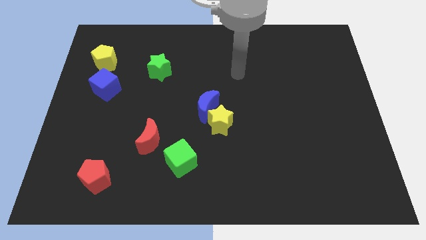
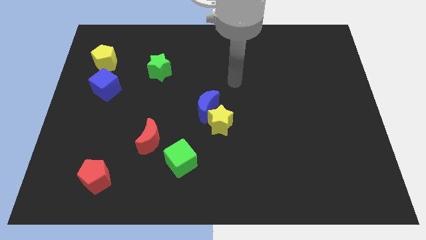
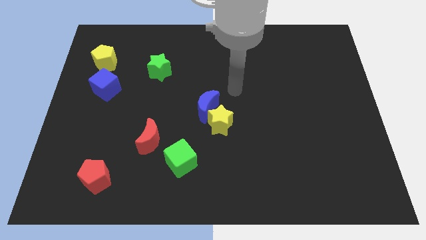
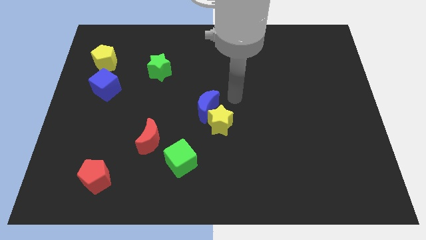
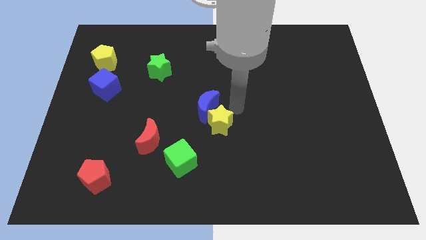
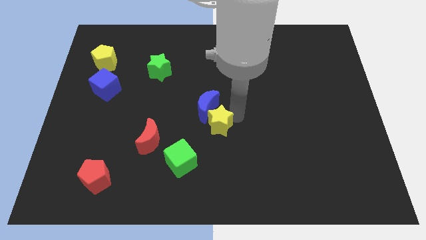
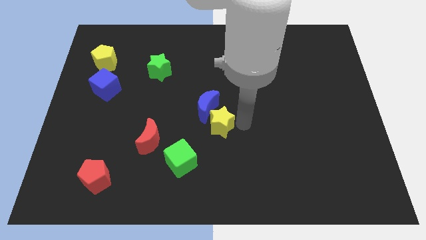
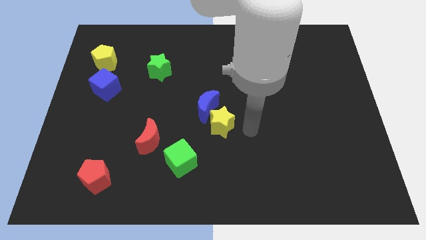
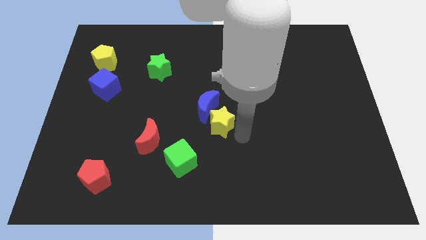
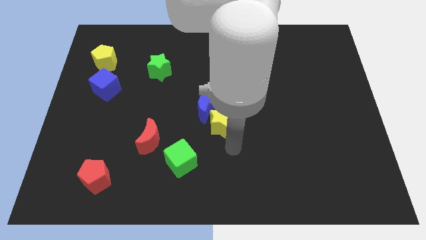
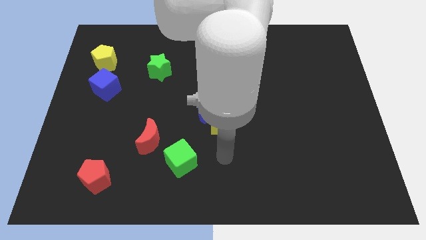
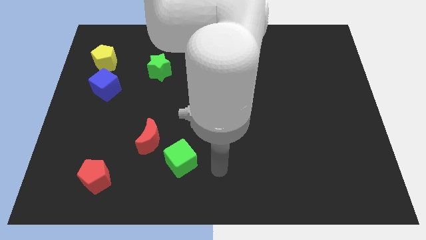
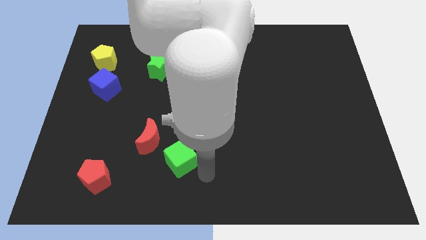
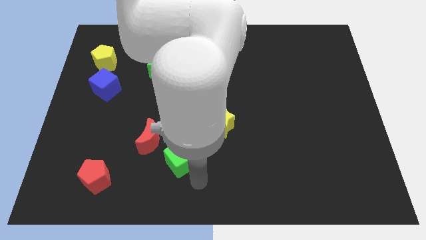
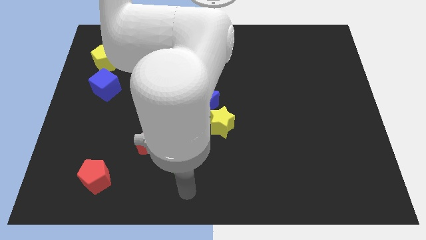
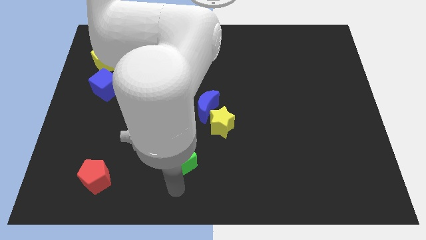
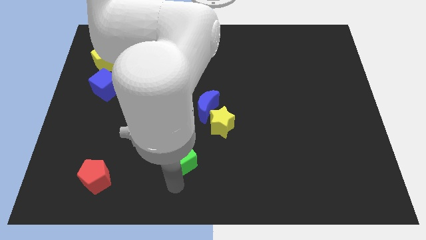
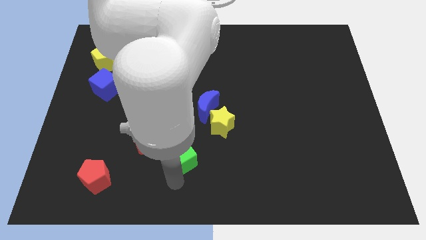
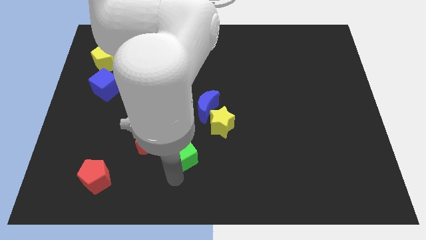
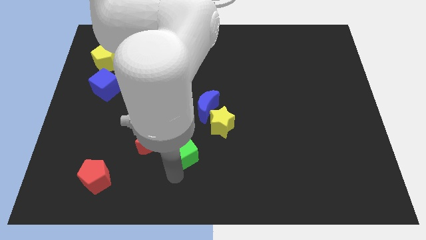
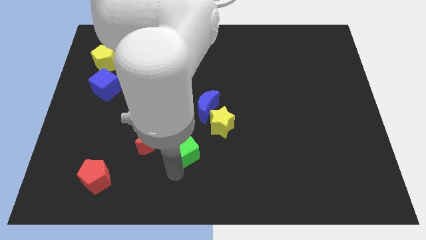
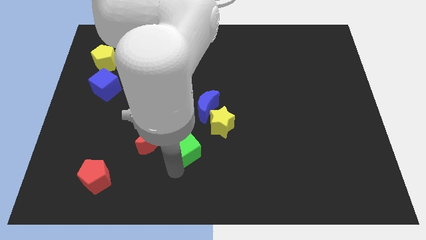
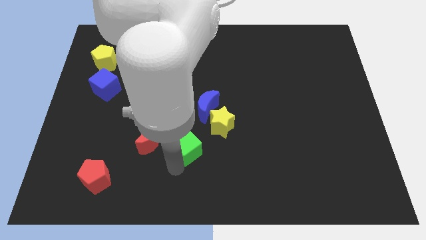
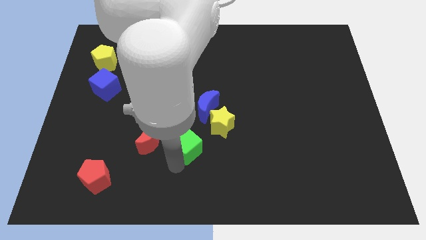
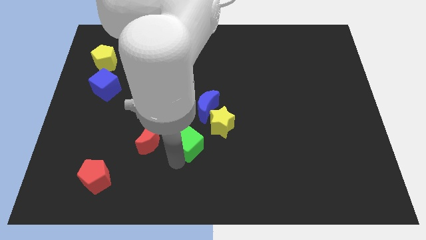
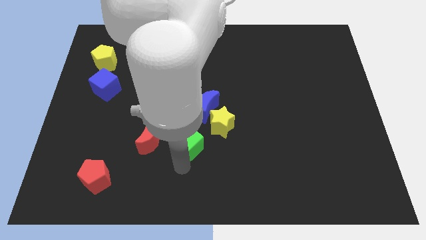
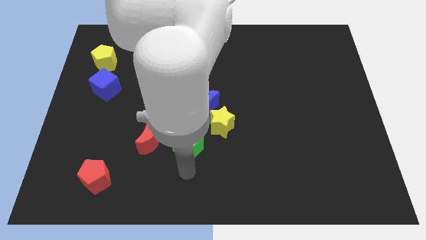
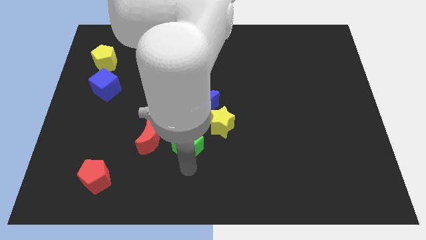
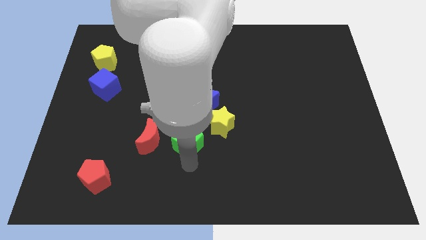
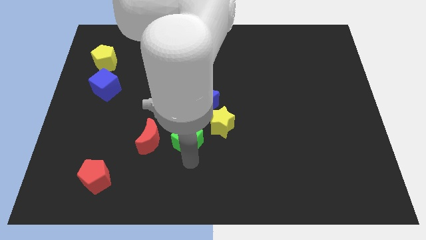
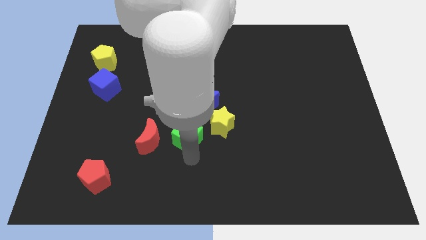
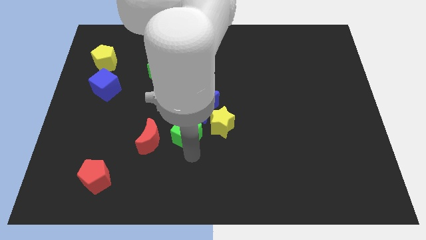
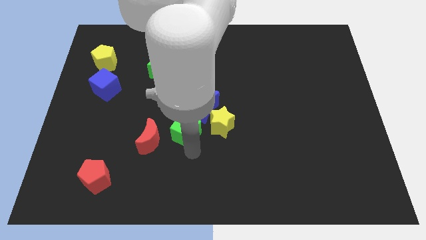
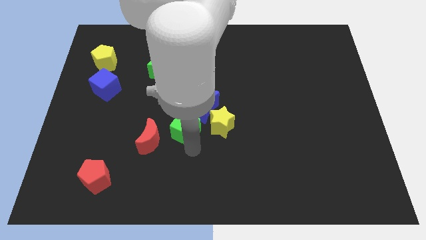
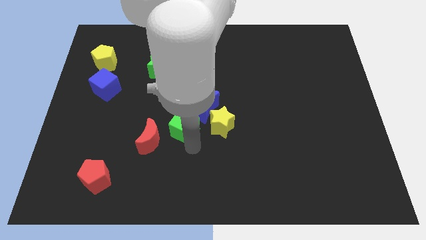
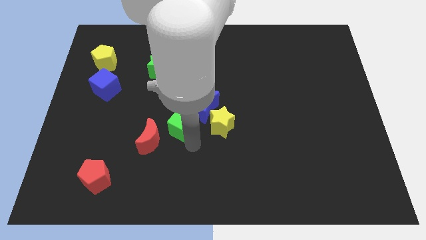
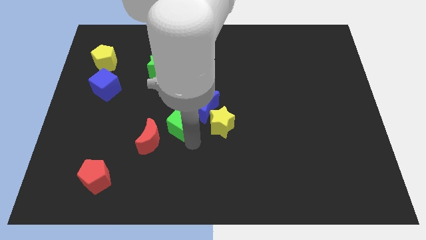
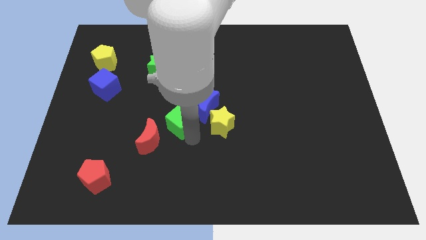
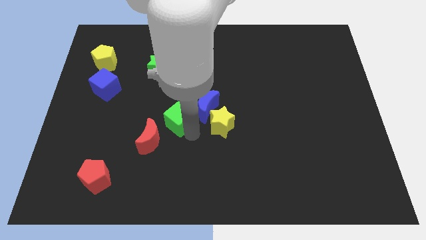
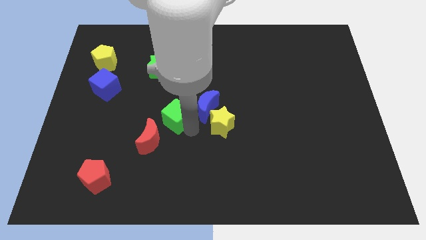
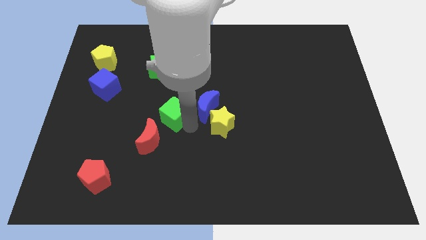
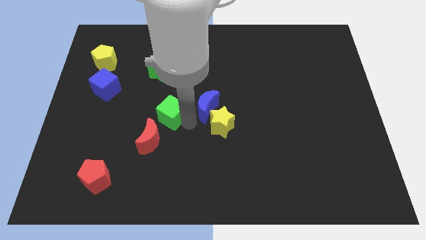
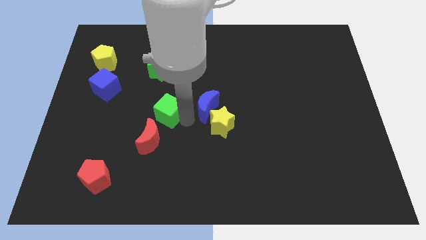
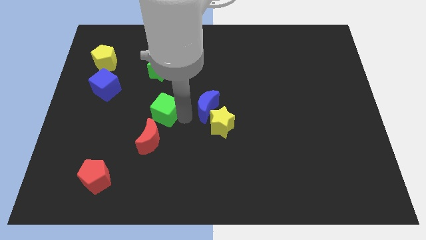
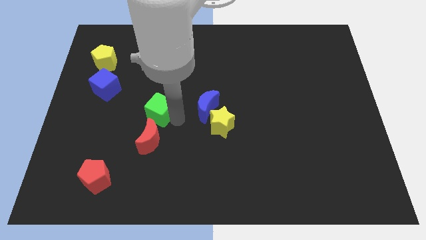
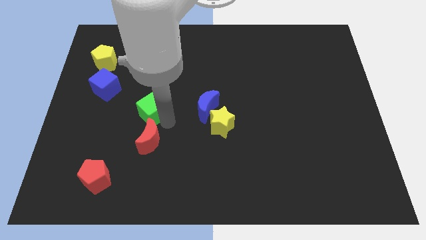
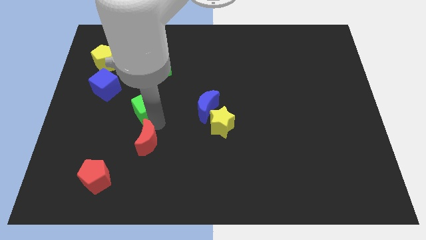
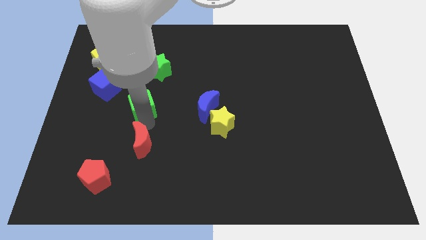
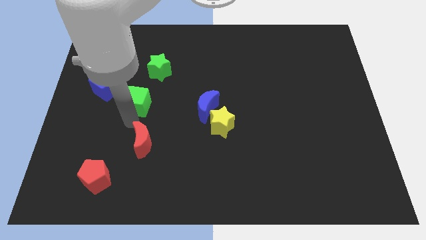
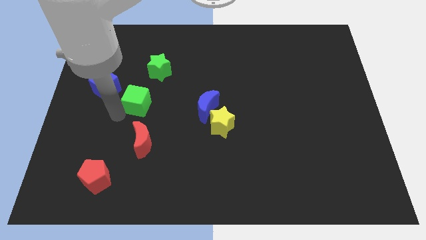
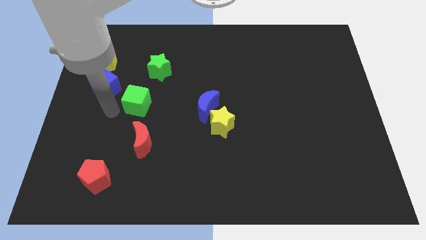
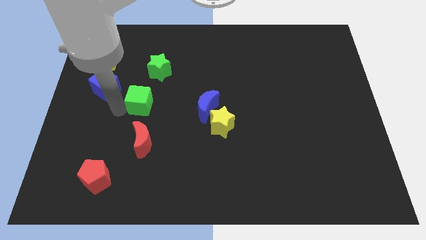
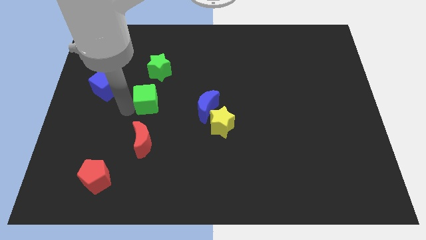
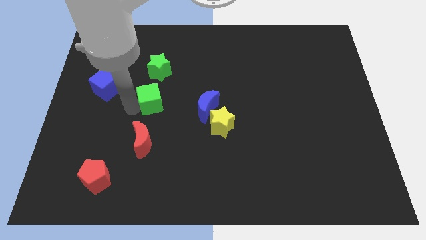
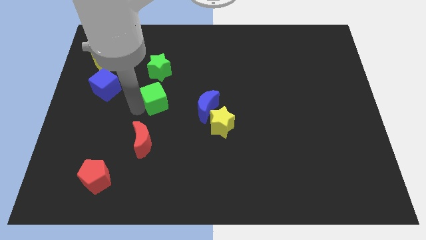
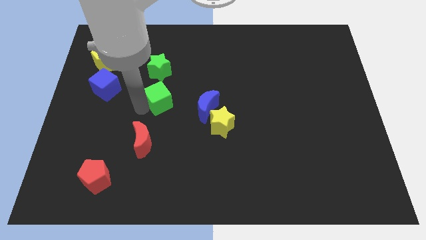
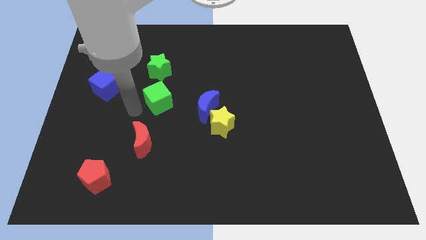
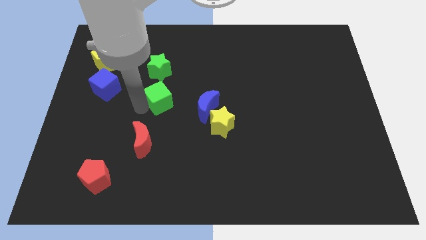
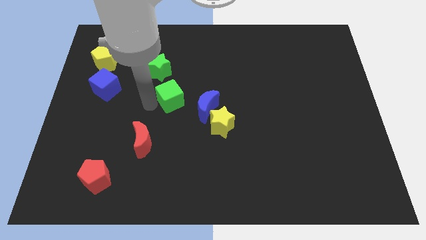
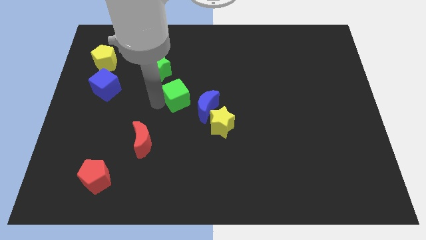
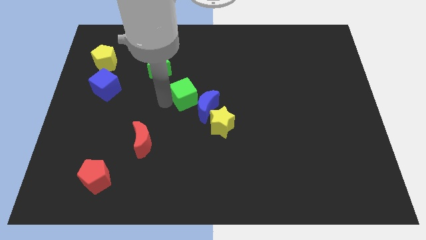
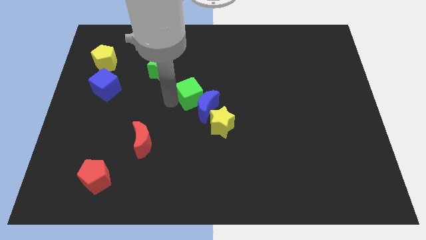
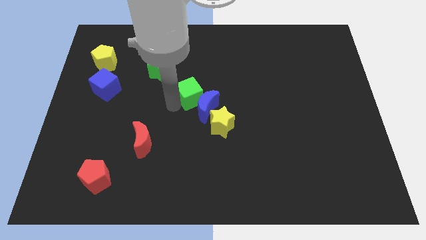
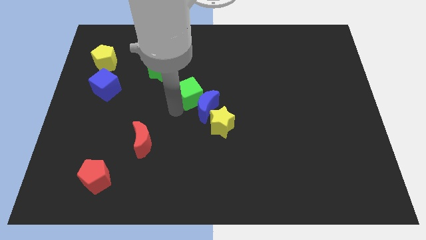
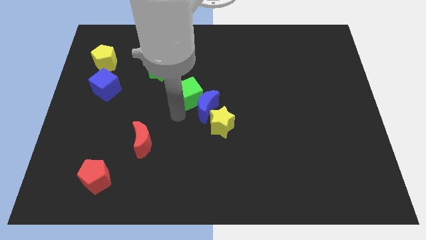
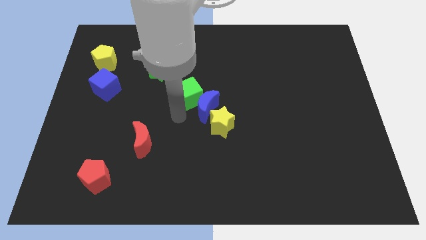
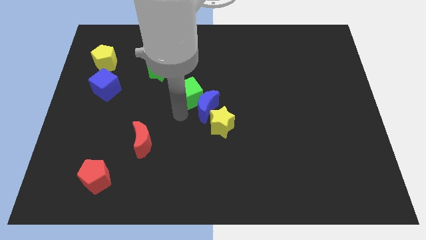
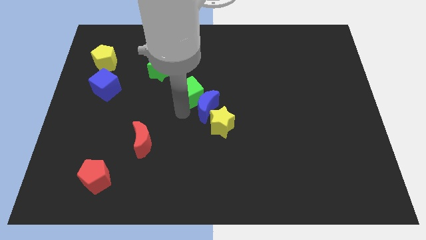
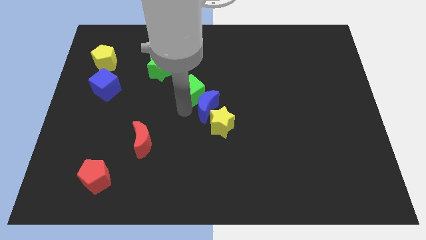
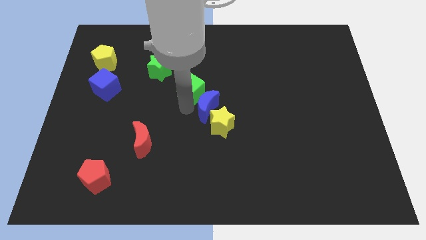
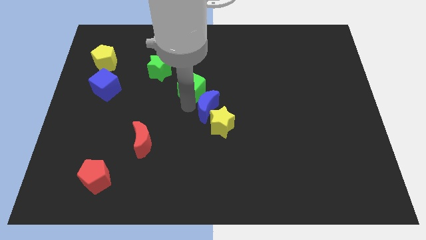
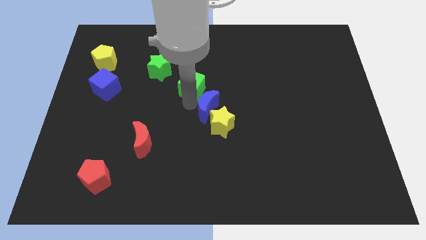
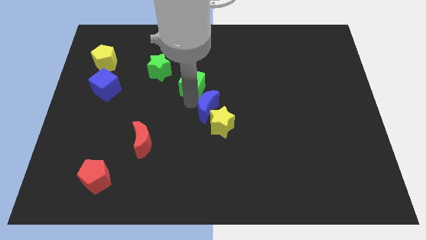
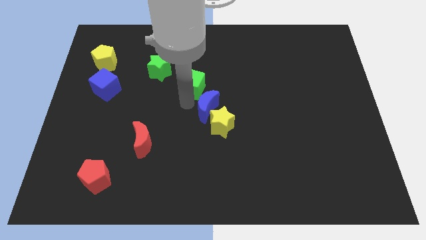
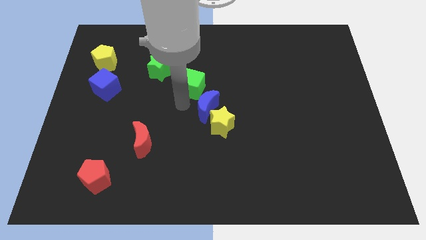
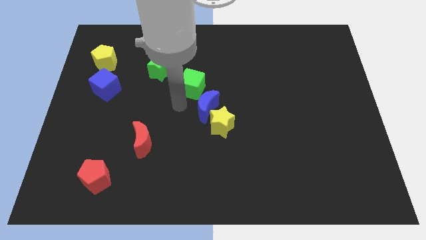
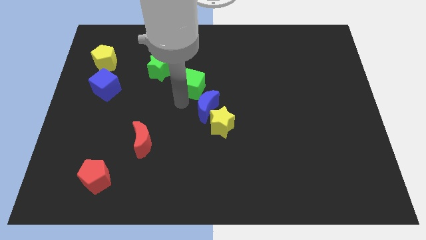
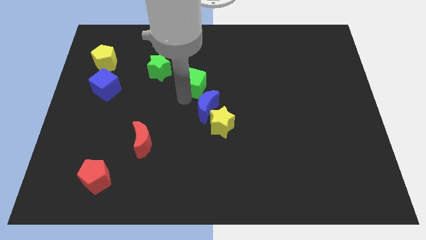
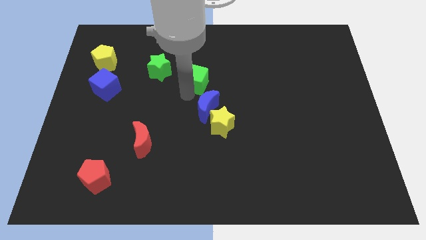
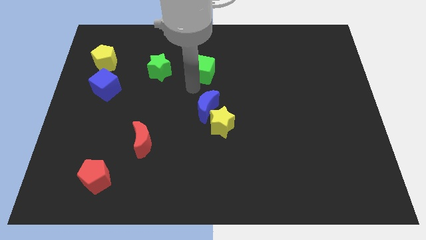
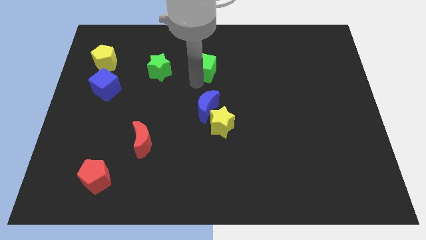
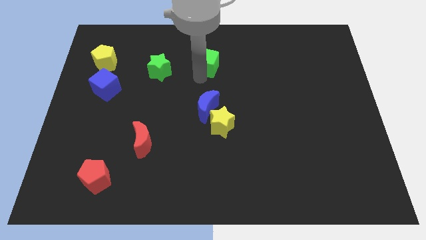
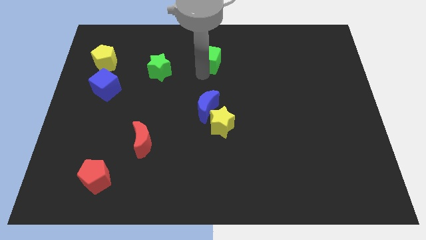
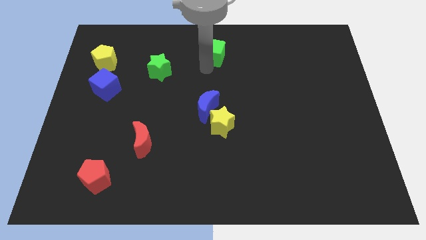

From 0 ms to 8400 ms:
move the green cube to the towards your base
